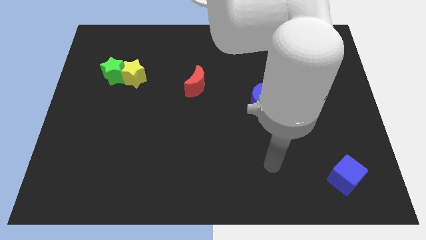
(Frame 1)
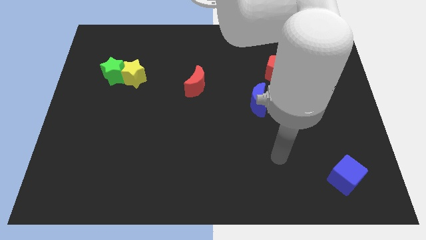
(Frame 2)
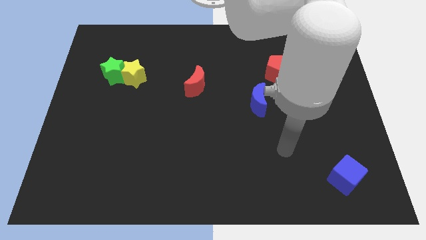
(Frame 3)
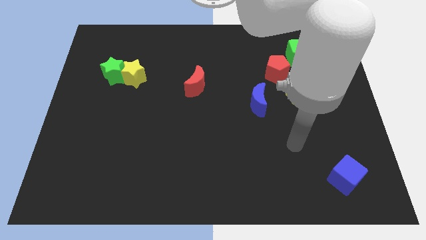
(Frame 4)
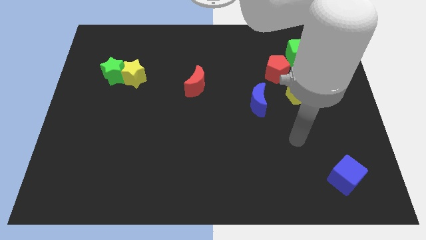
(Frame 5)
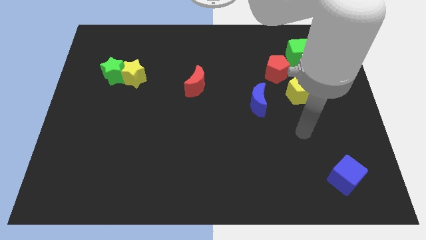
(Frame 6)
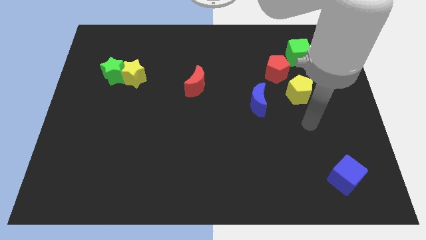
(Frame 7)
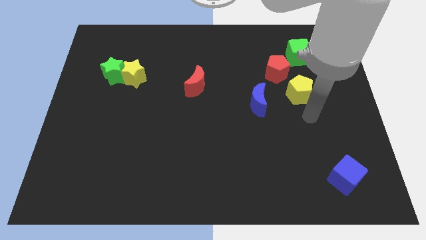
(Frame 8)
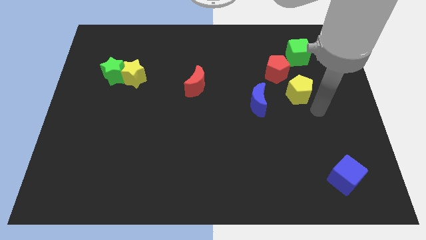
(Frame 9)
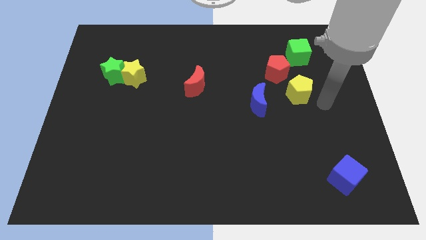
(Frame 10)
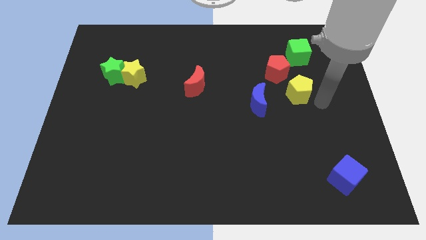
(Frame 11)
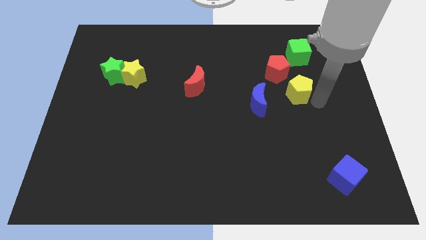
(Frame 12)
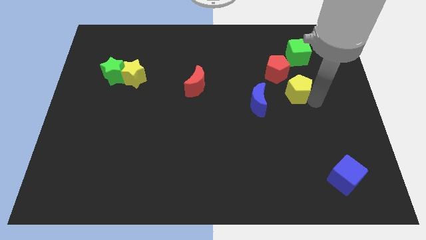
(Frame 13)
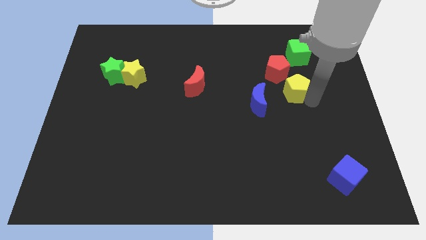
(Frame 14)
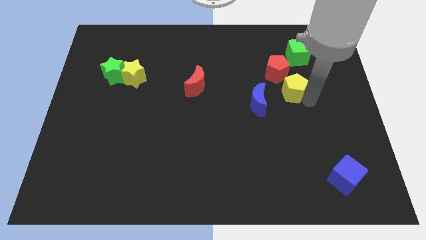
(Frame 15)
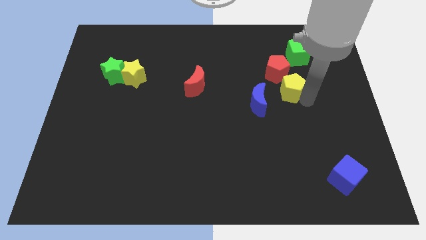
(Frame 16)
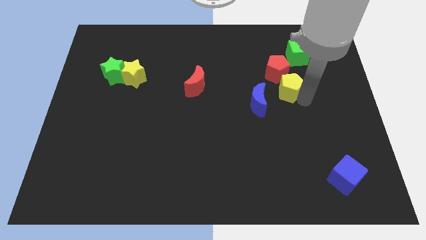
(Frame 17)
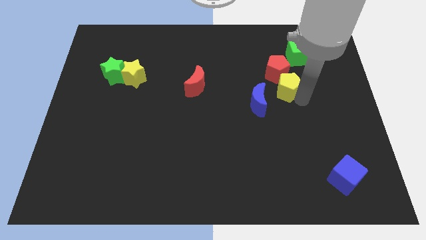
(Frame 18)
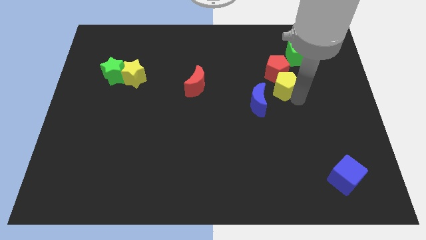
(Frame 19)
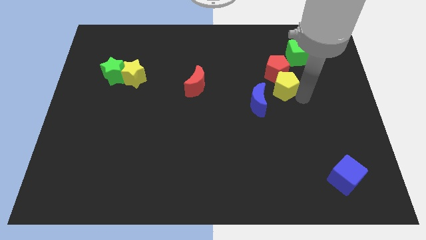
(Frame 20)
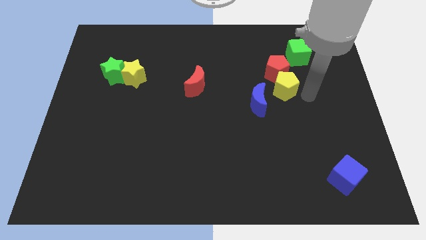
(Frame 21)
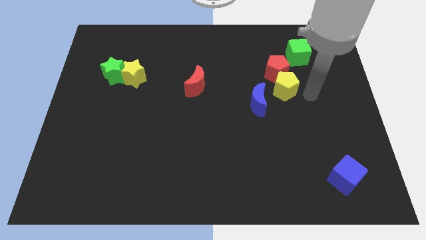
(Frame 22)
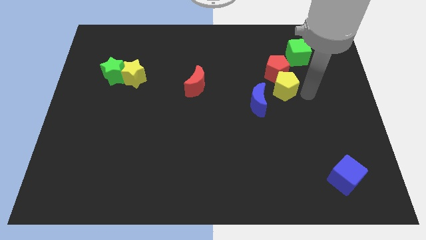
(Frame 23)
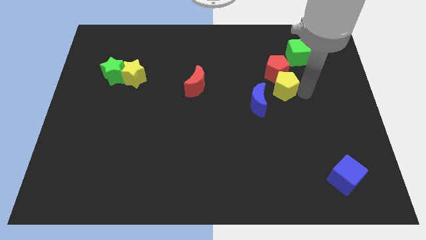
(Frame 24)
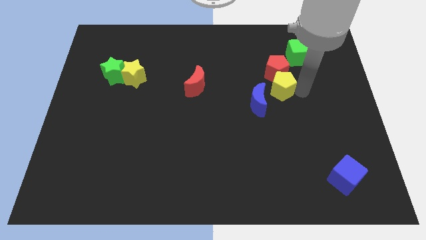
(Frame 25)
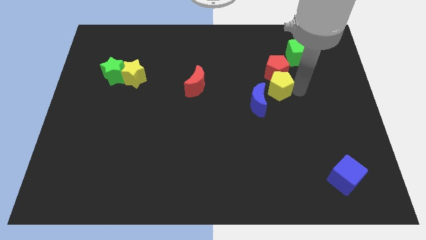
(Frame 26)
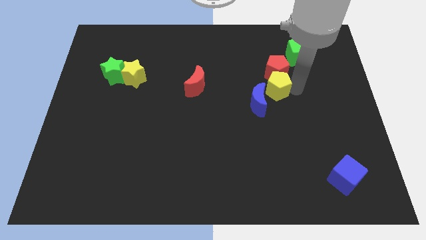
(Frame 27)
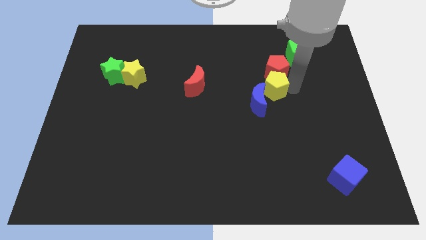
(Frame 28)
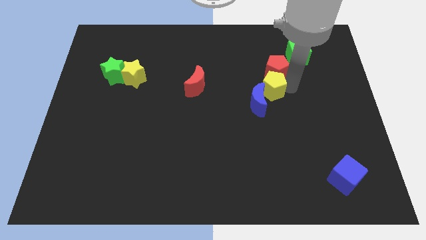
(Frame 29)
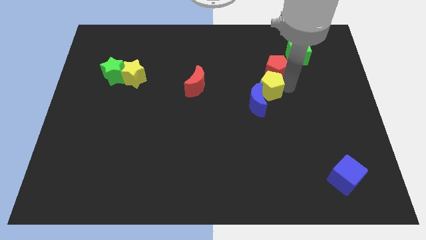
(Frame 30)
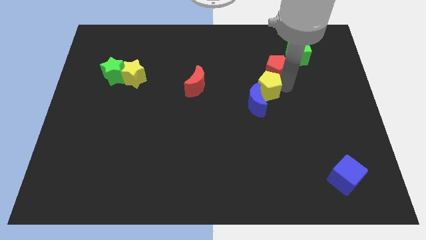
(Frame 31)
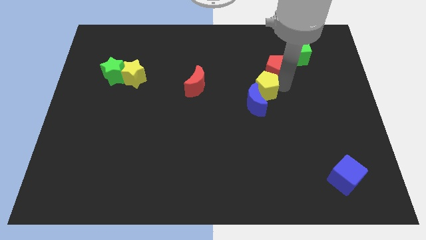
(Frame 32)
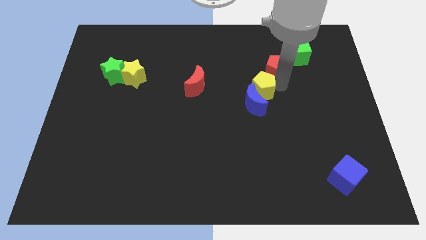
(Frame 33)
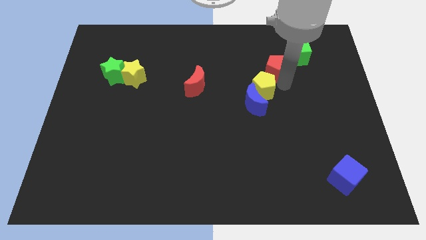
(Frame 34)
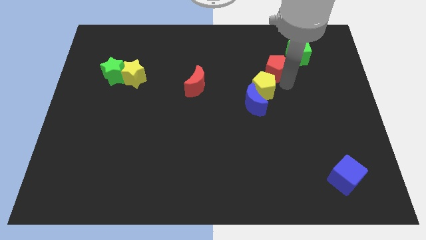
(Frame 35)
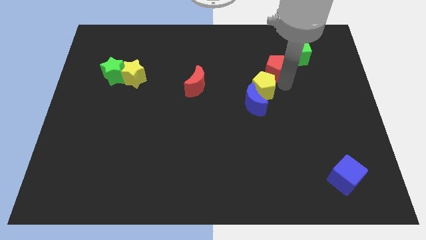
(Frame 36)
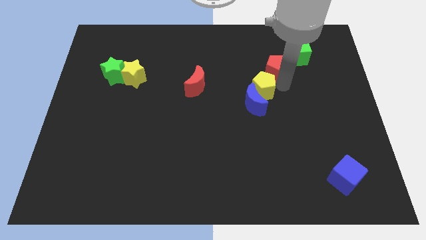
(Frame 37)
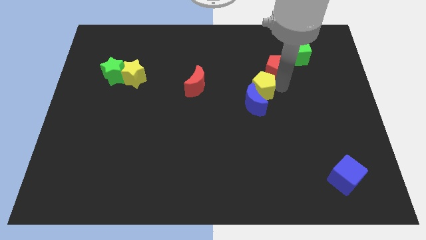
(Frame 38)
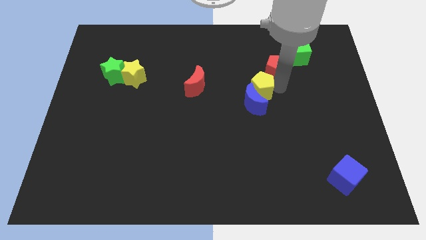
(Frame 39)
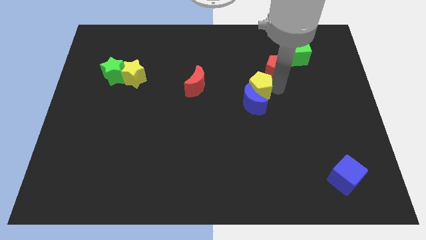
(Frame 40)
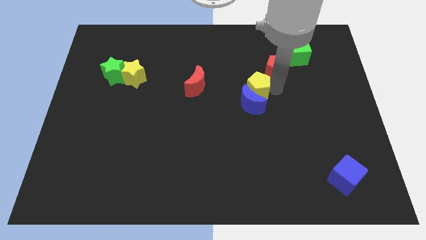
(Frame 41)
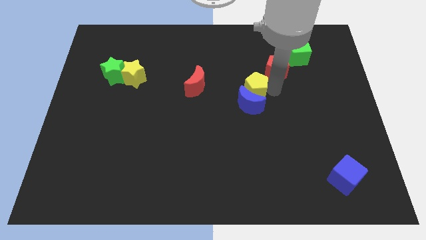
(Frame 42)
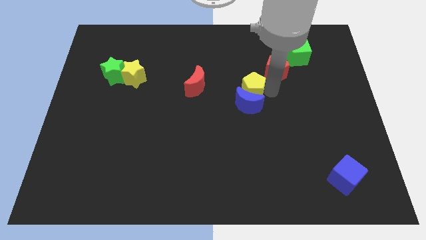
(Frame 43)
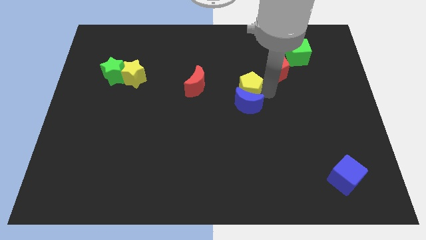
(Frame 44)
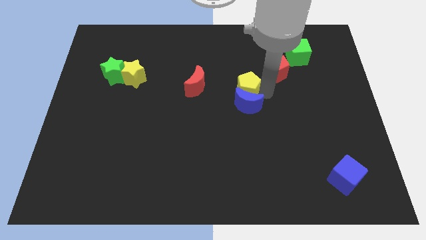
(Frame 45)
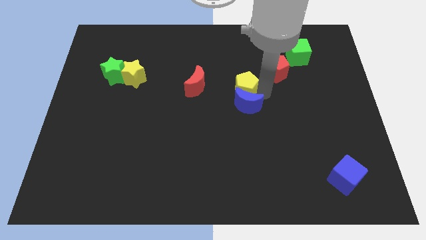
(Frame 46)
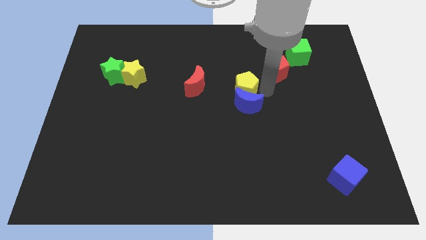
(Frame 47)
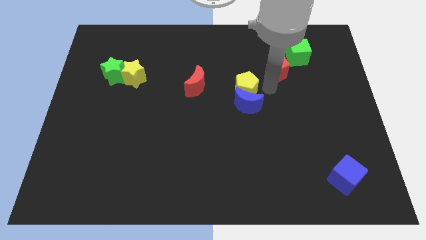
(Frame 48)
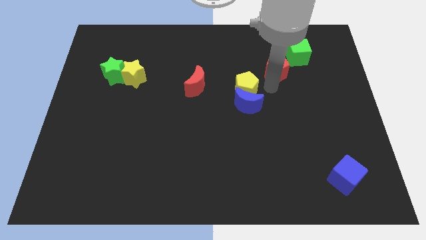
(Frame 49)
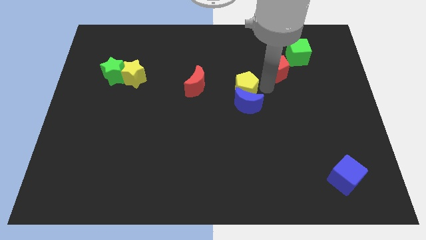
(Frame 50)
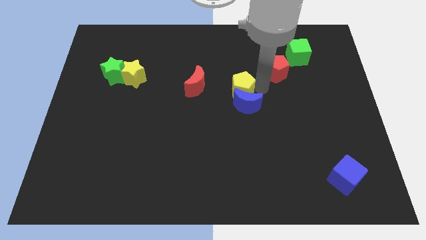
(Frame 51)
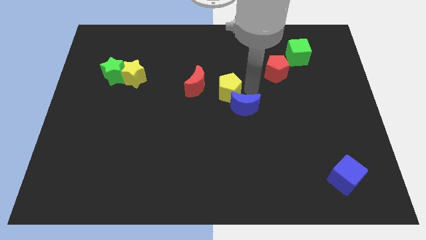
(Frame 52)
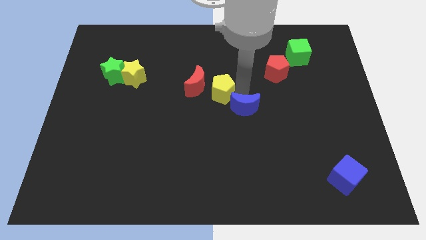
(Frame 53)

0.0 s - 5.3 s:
push the yellow pentagon close to the red moon

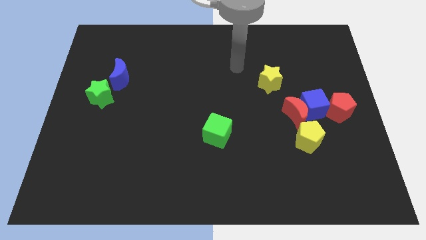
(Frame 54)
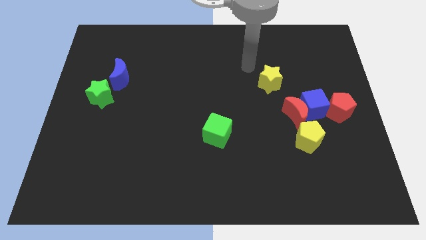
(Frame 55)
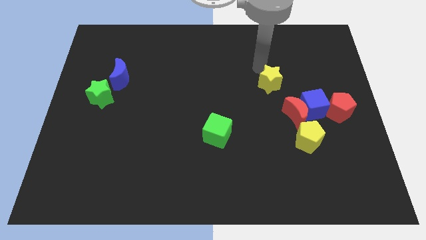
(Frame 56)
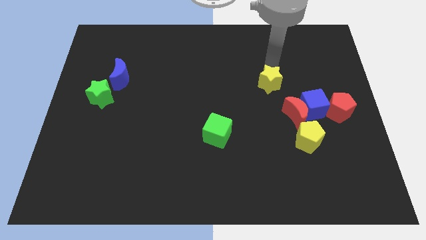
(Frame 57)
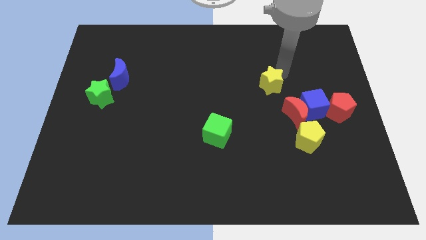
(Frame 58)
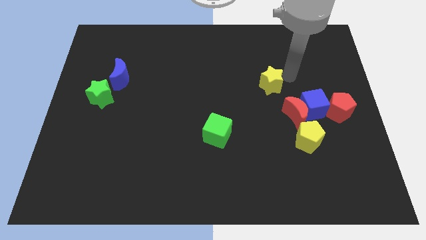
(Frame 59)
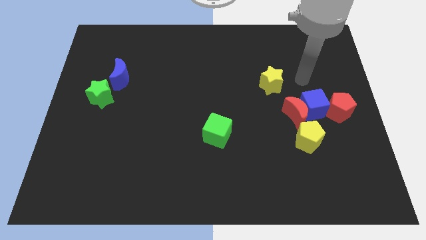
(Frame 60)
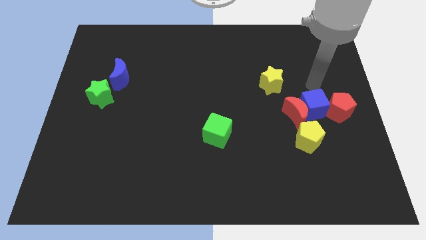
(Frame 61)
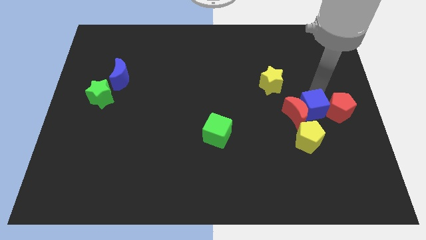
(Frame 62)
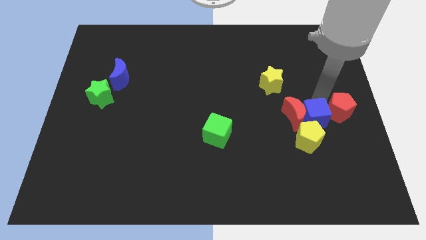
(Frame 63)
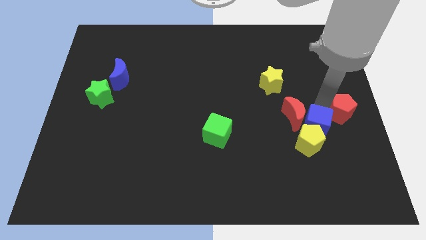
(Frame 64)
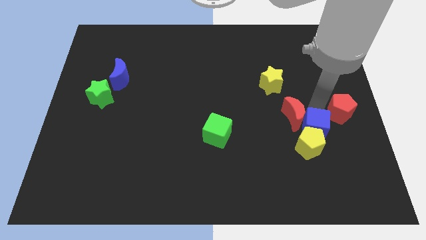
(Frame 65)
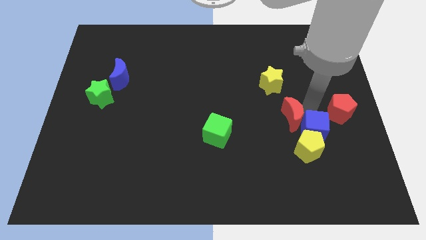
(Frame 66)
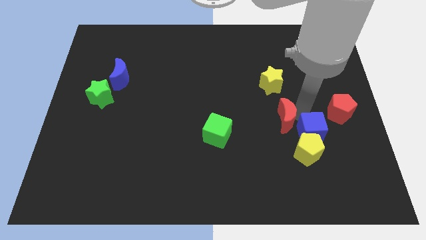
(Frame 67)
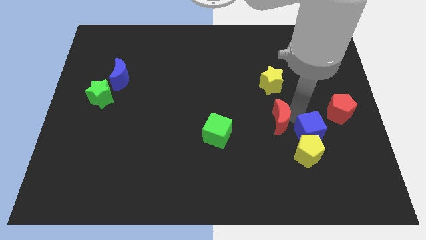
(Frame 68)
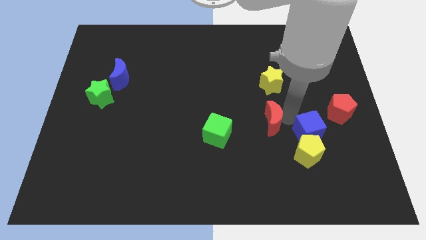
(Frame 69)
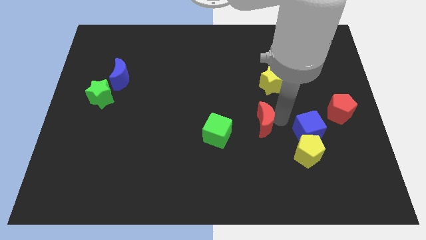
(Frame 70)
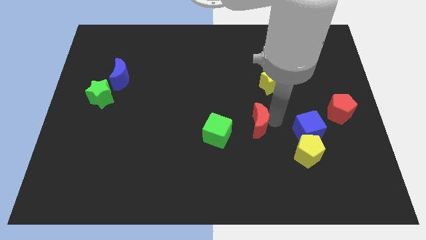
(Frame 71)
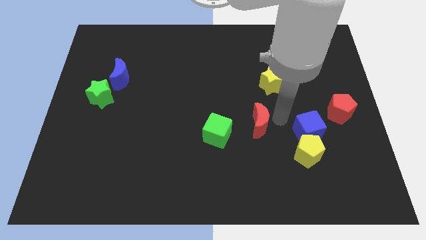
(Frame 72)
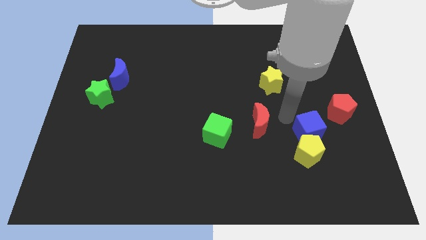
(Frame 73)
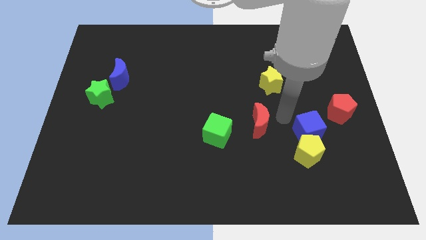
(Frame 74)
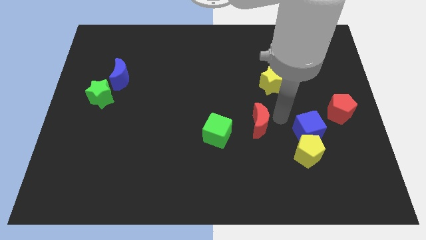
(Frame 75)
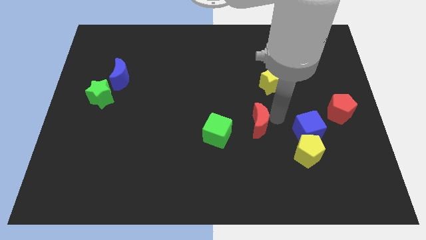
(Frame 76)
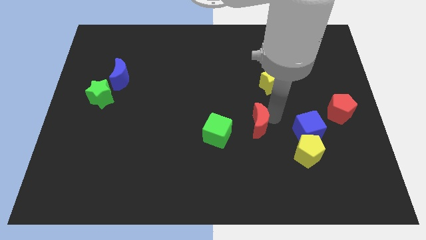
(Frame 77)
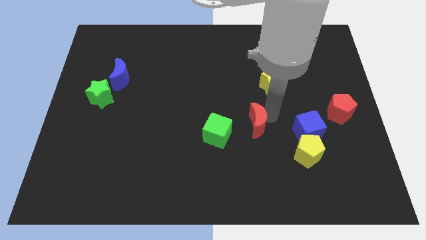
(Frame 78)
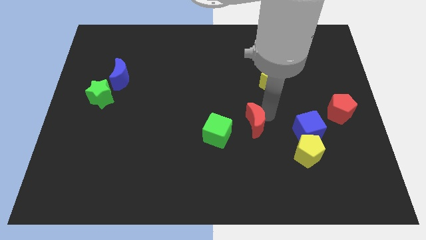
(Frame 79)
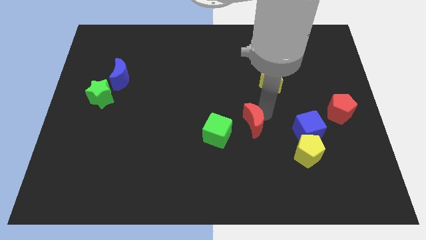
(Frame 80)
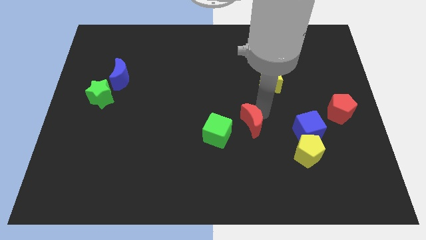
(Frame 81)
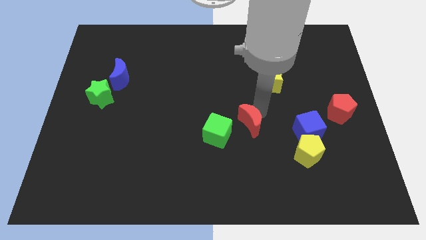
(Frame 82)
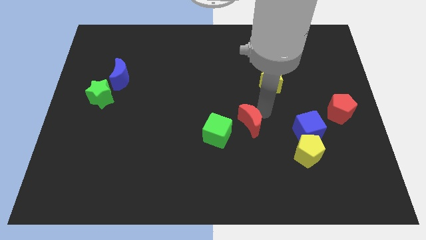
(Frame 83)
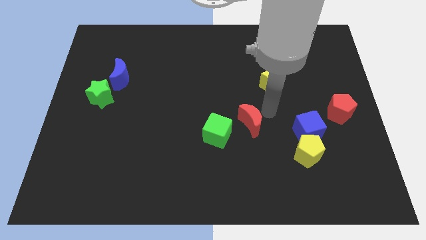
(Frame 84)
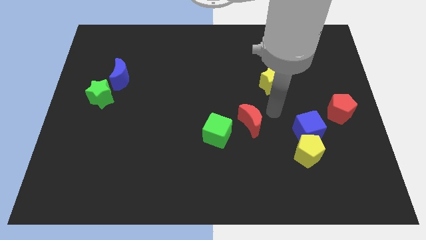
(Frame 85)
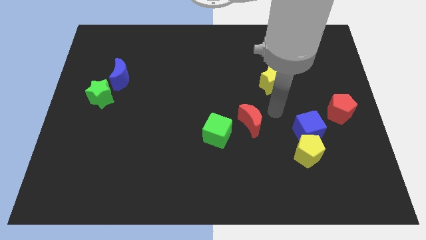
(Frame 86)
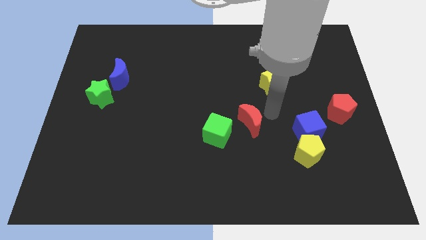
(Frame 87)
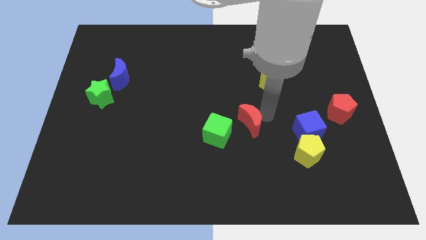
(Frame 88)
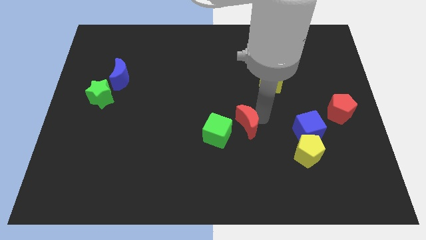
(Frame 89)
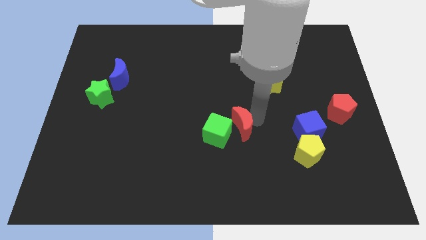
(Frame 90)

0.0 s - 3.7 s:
push the red moon to the green cube
